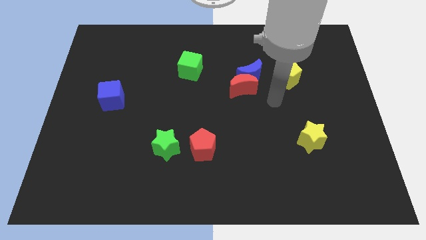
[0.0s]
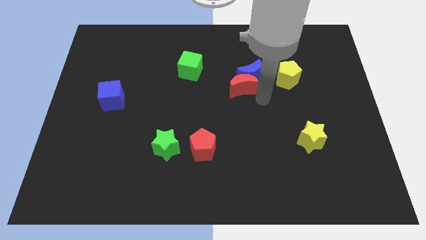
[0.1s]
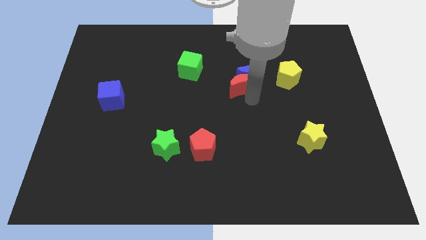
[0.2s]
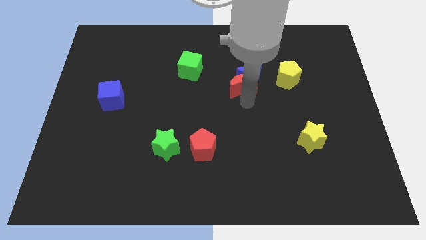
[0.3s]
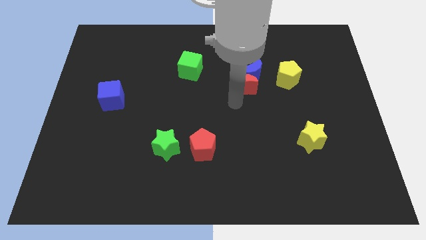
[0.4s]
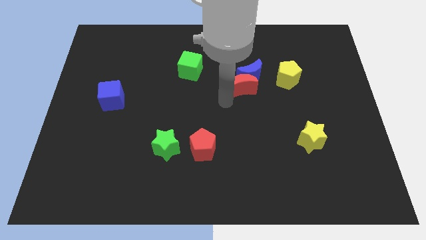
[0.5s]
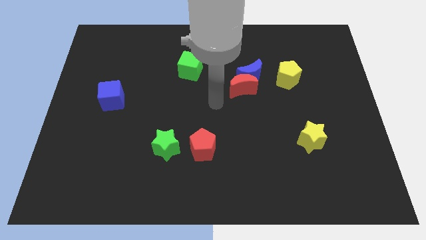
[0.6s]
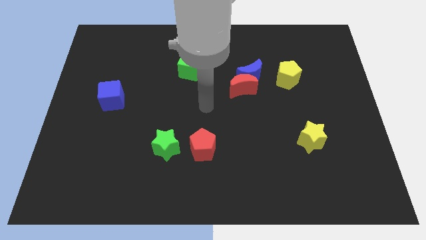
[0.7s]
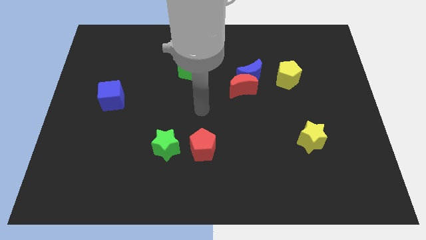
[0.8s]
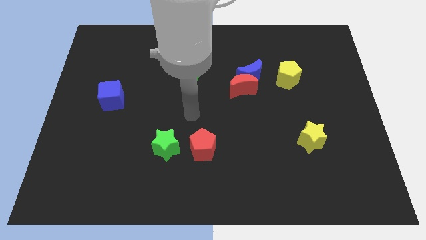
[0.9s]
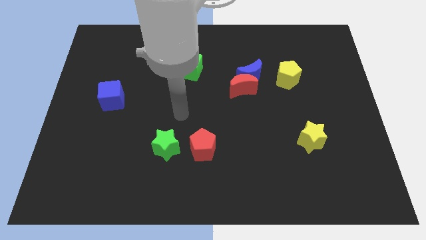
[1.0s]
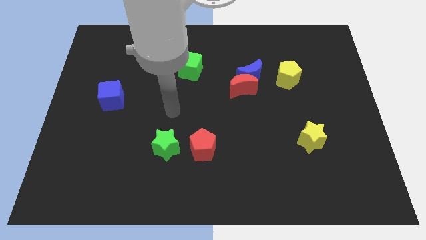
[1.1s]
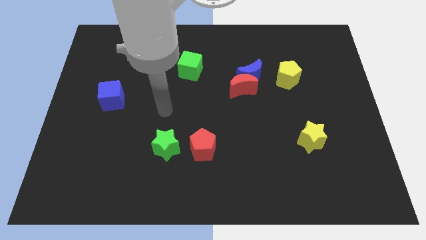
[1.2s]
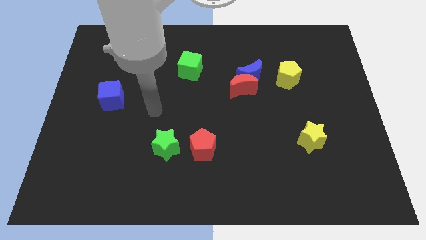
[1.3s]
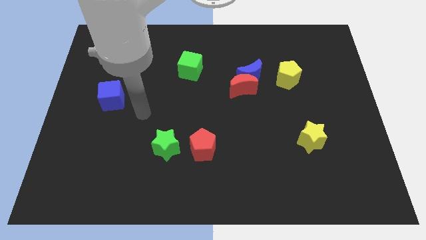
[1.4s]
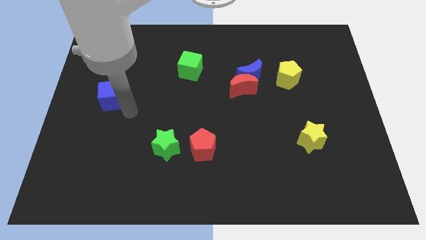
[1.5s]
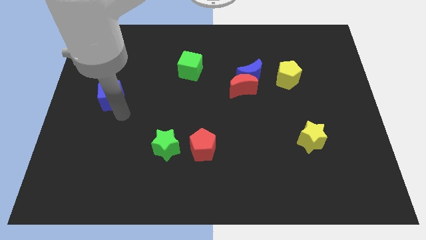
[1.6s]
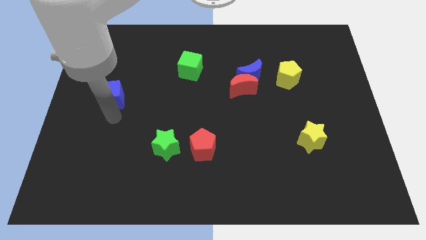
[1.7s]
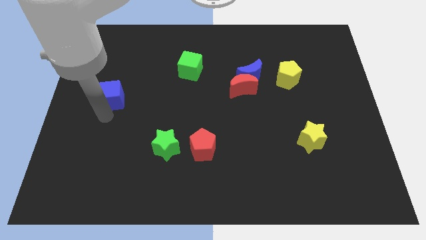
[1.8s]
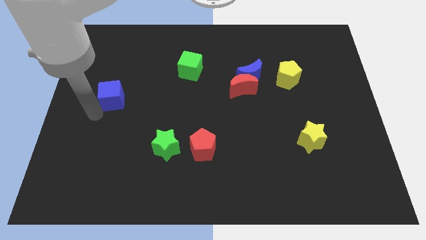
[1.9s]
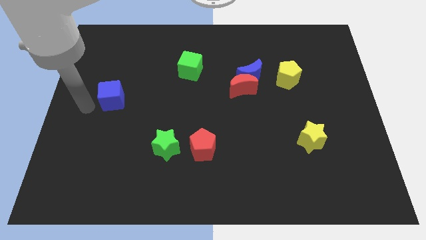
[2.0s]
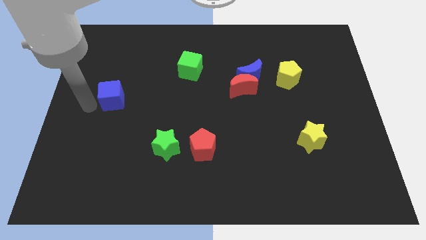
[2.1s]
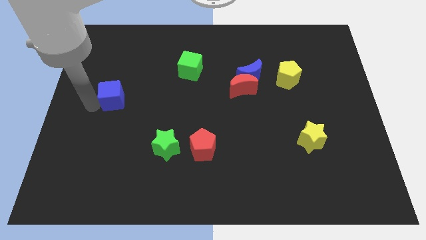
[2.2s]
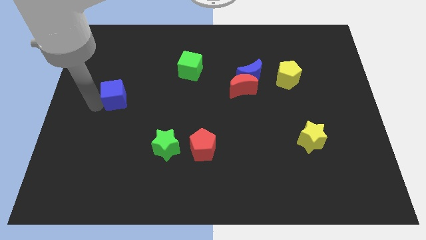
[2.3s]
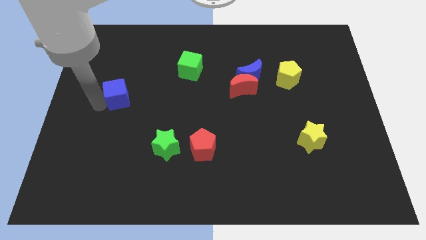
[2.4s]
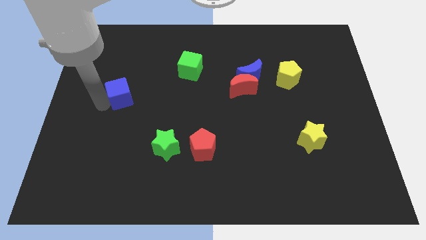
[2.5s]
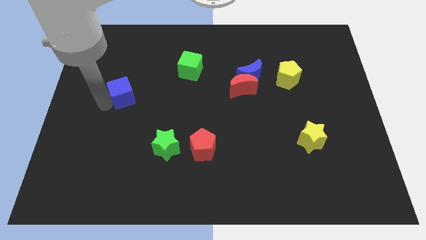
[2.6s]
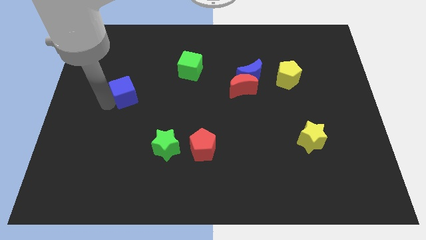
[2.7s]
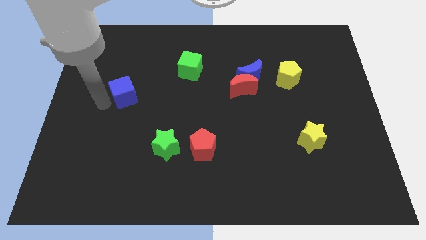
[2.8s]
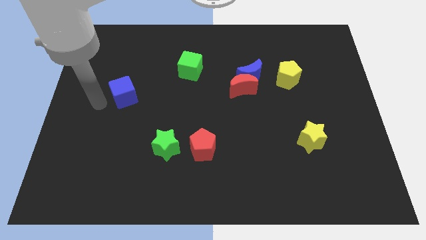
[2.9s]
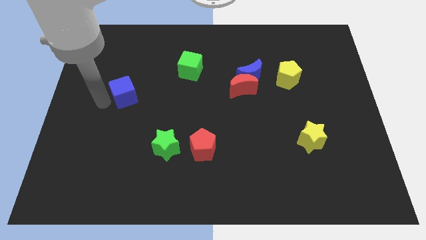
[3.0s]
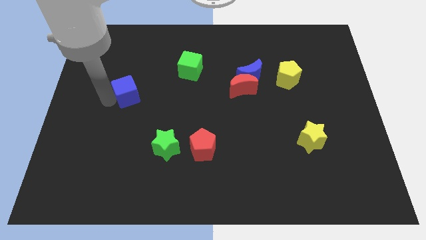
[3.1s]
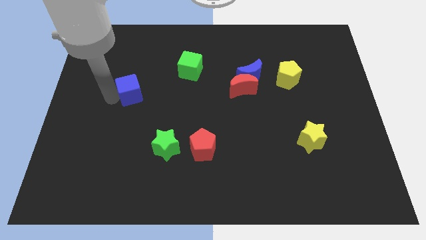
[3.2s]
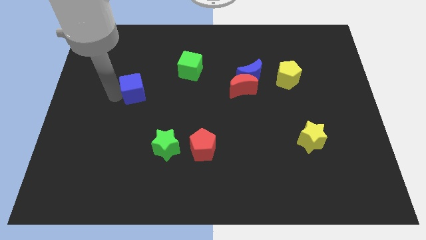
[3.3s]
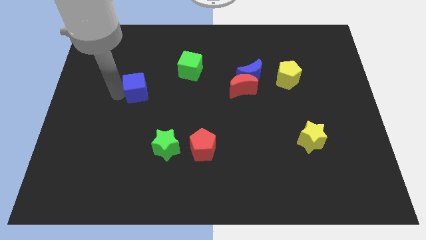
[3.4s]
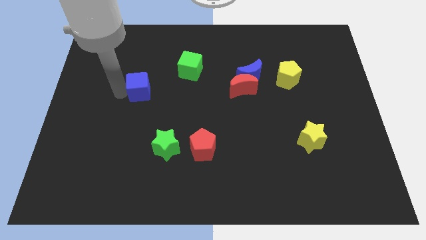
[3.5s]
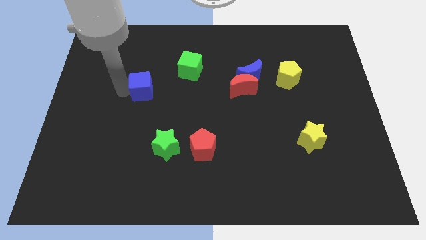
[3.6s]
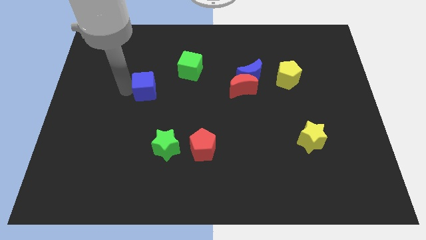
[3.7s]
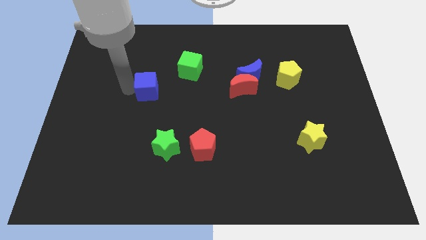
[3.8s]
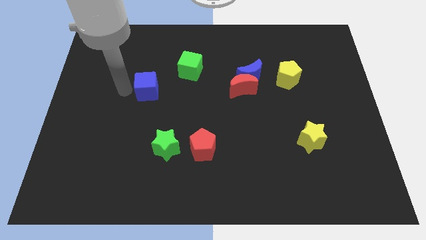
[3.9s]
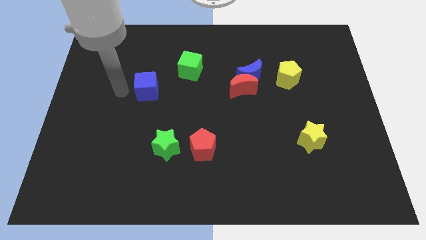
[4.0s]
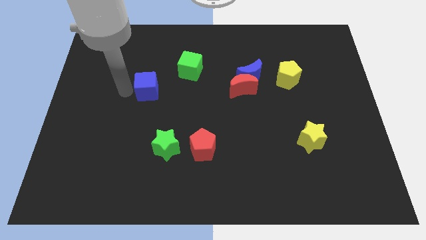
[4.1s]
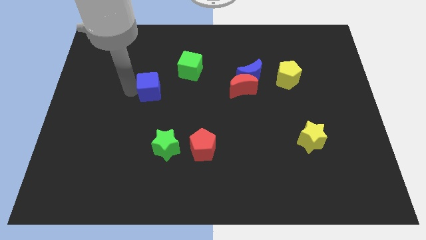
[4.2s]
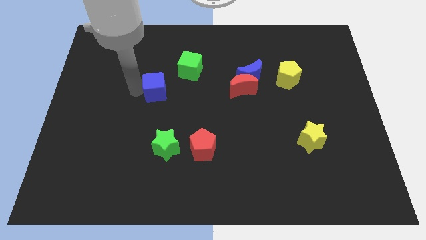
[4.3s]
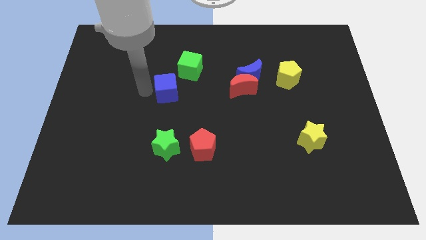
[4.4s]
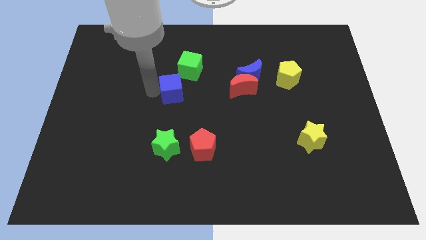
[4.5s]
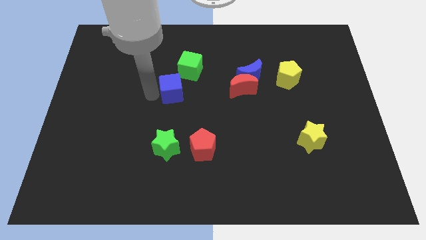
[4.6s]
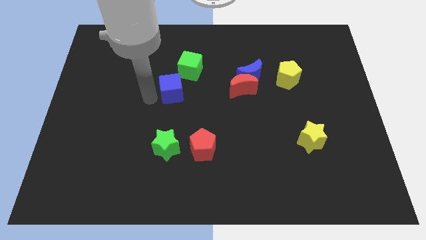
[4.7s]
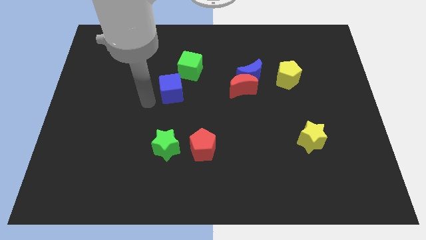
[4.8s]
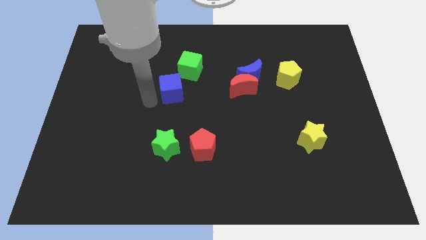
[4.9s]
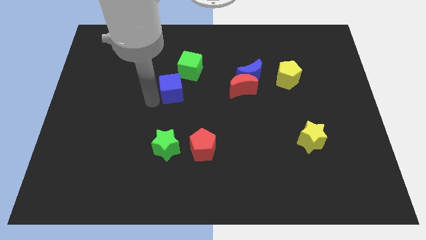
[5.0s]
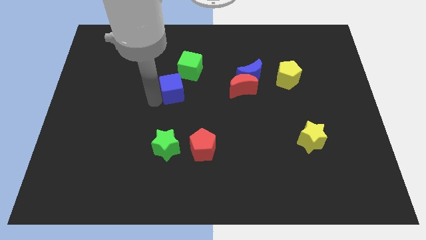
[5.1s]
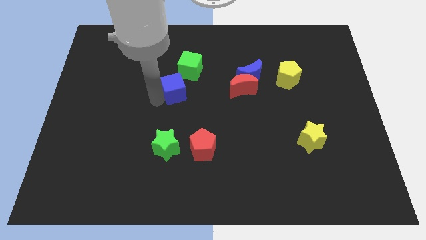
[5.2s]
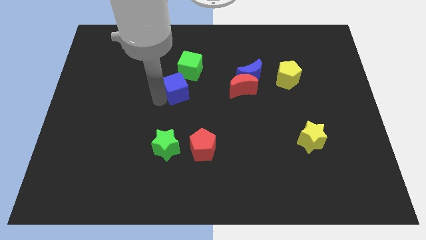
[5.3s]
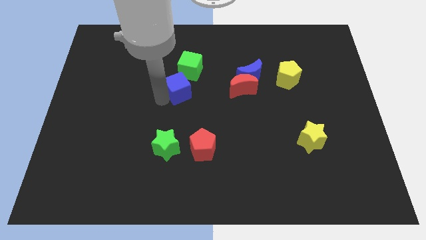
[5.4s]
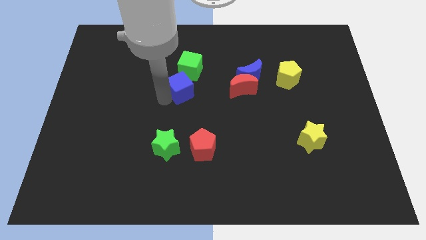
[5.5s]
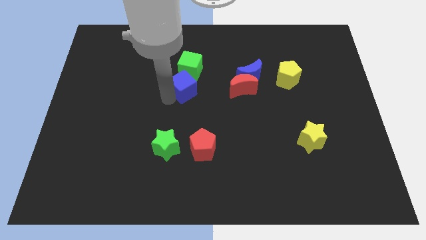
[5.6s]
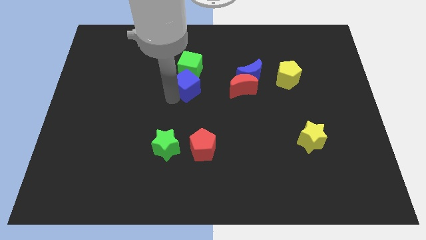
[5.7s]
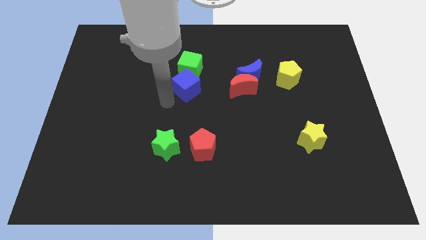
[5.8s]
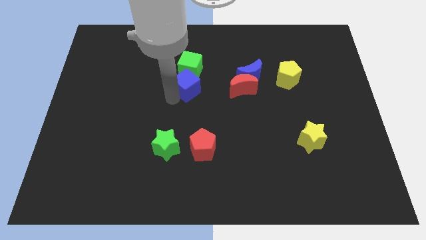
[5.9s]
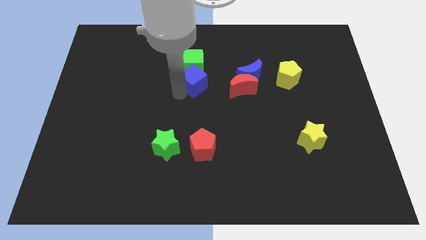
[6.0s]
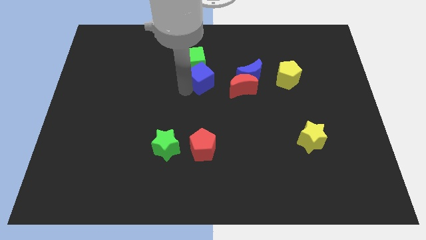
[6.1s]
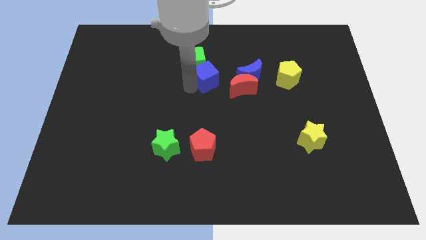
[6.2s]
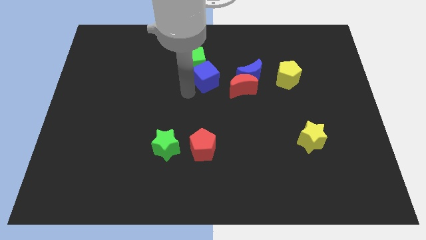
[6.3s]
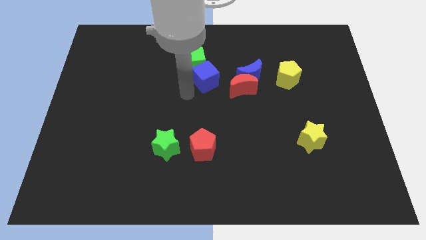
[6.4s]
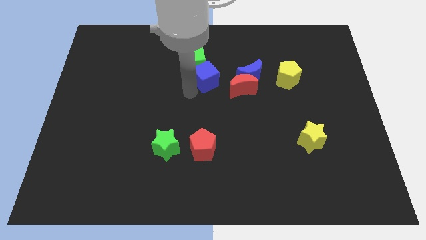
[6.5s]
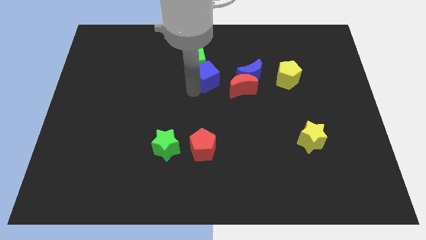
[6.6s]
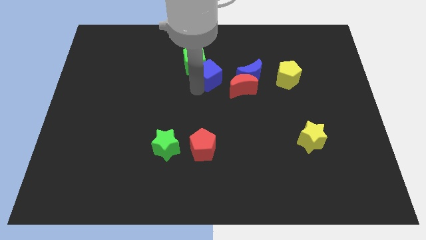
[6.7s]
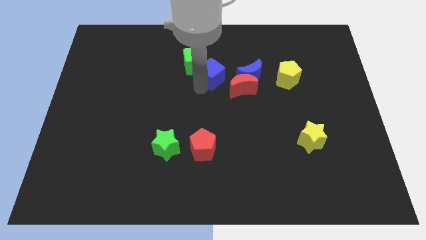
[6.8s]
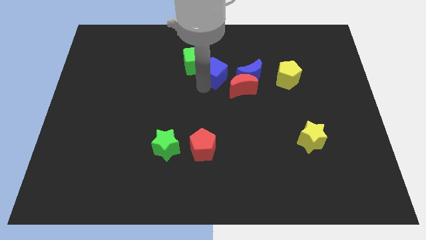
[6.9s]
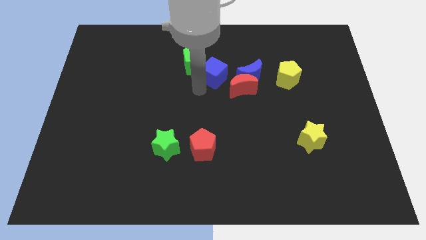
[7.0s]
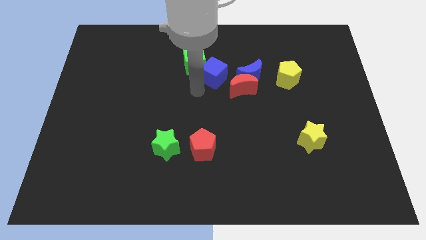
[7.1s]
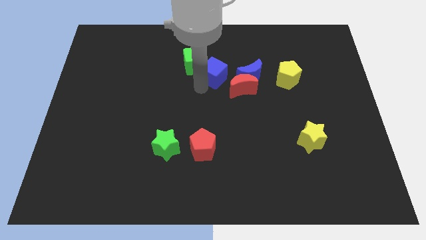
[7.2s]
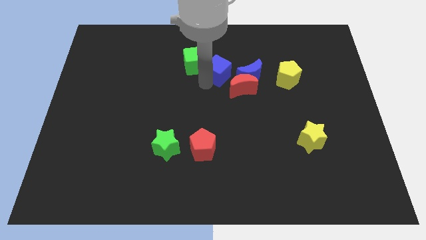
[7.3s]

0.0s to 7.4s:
move the blue cube to the top left side of the blue moon

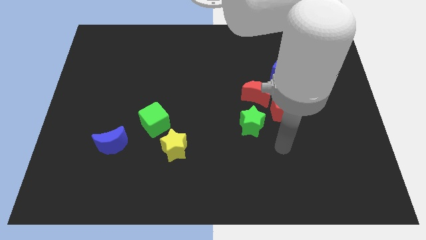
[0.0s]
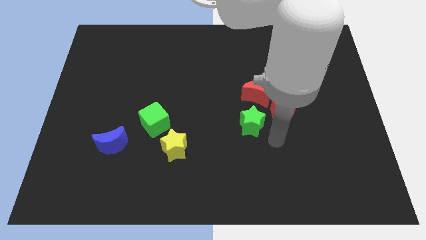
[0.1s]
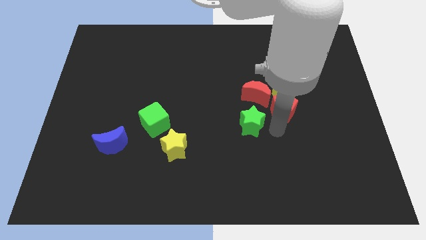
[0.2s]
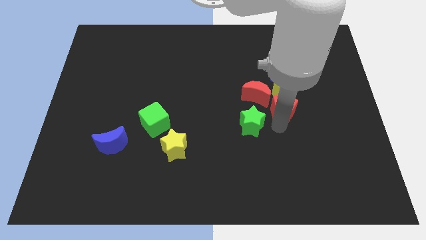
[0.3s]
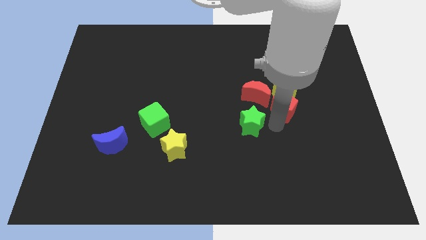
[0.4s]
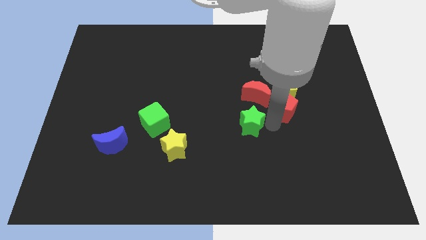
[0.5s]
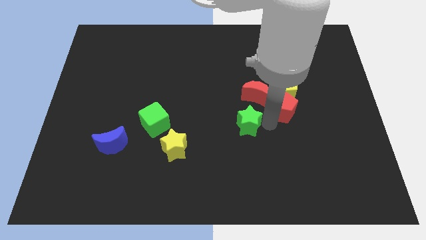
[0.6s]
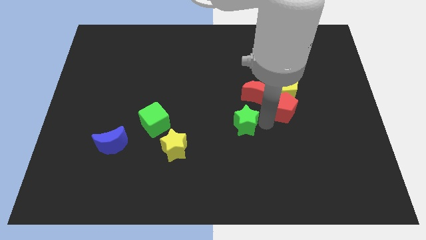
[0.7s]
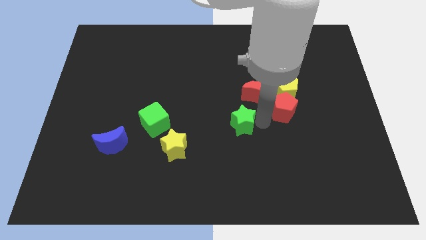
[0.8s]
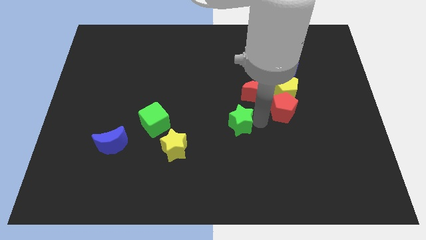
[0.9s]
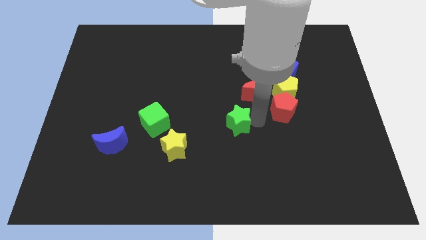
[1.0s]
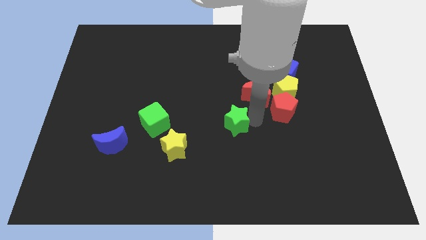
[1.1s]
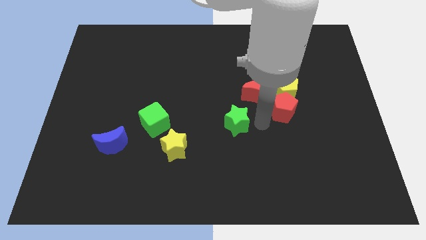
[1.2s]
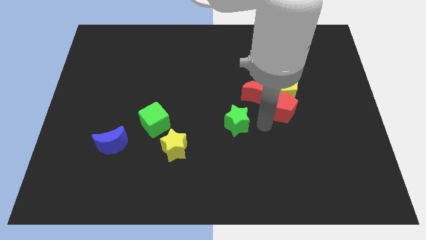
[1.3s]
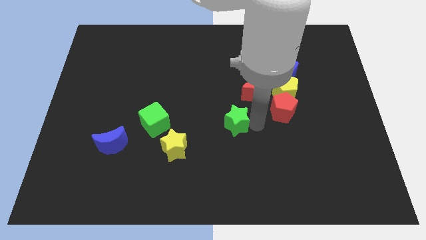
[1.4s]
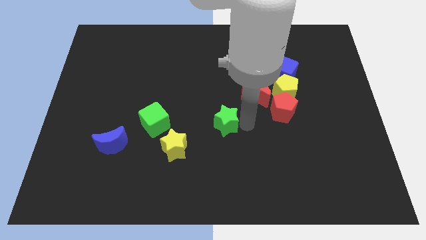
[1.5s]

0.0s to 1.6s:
put the green star to the right of the green cube
